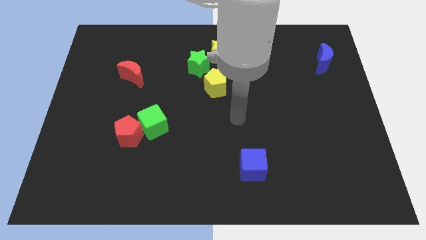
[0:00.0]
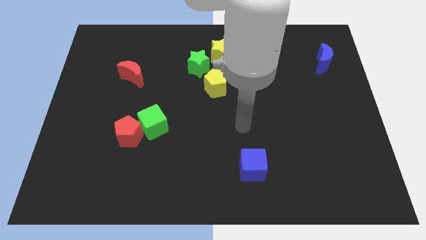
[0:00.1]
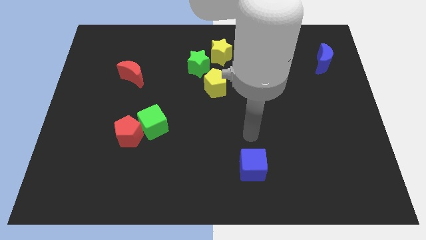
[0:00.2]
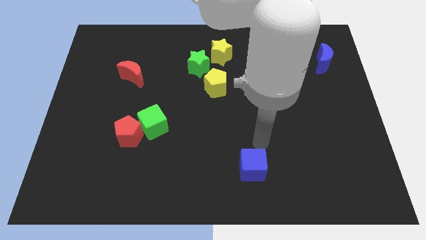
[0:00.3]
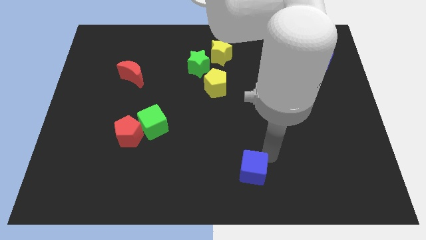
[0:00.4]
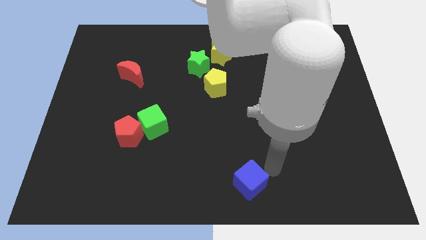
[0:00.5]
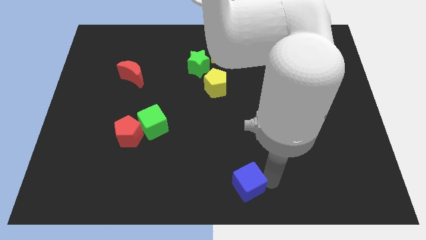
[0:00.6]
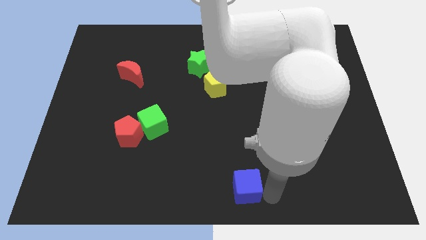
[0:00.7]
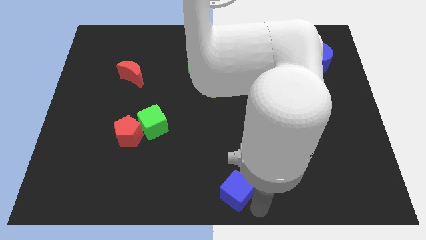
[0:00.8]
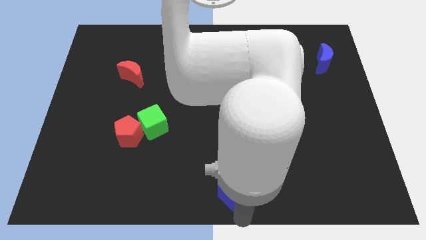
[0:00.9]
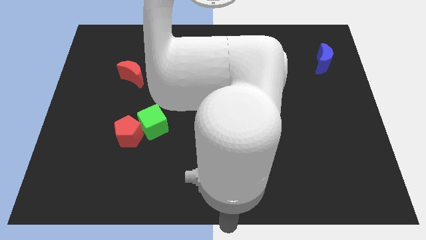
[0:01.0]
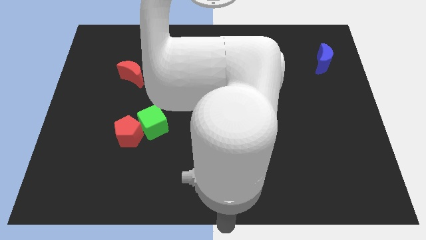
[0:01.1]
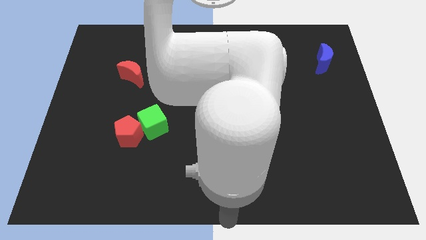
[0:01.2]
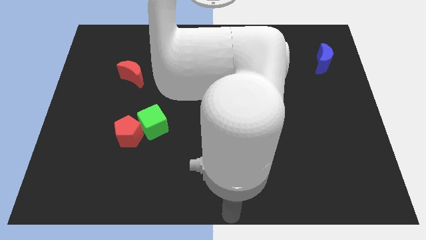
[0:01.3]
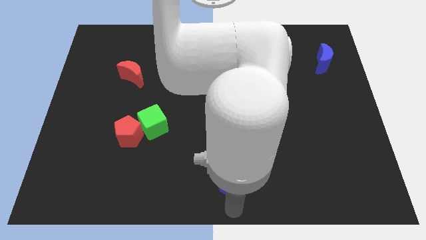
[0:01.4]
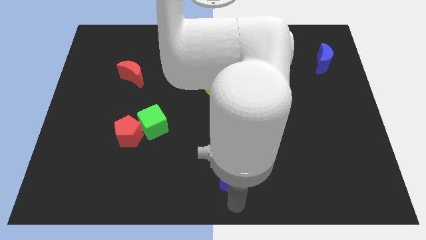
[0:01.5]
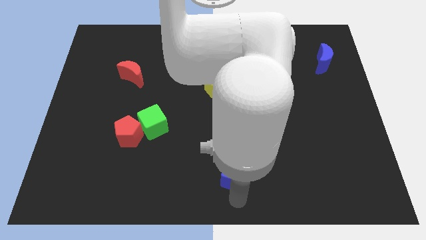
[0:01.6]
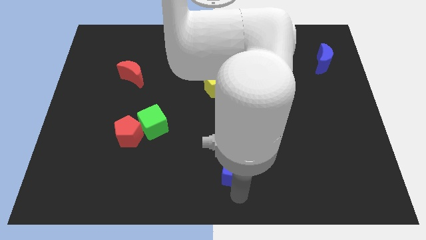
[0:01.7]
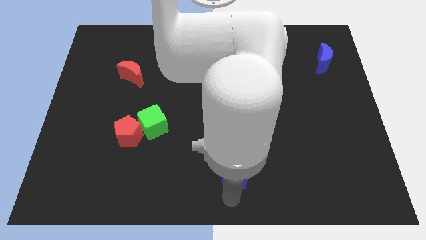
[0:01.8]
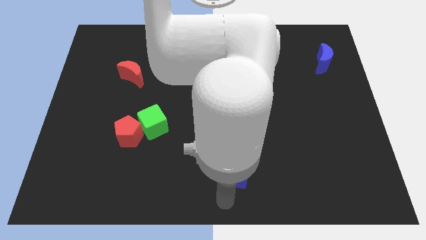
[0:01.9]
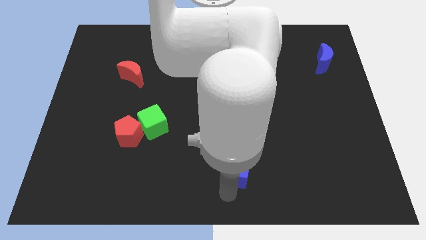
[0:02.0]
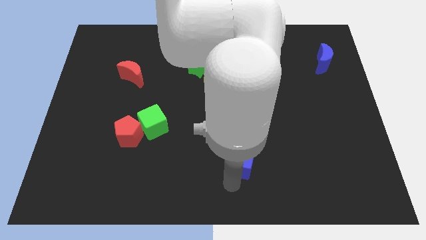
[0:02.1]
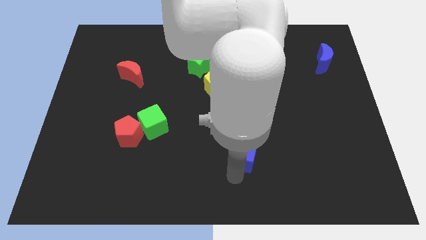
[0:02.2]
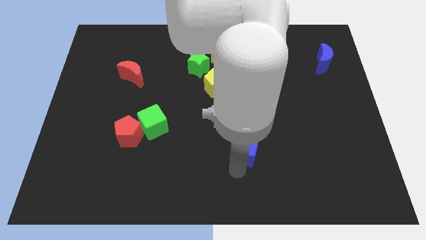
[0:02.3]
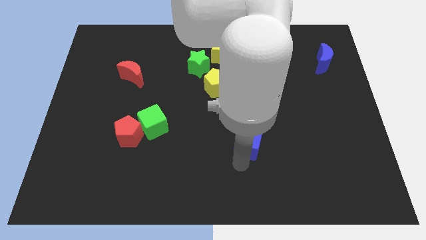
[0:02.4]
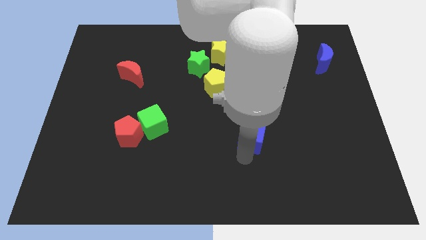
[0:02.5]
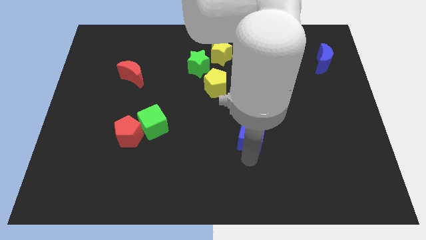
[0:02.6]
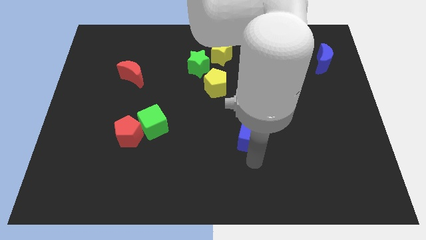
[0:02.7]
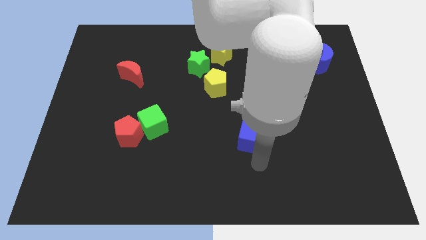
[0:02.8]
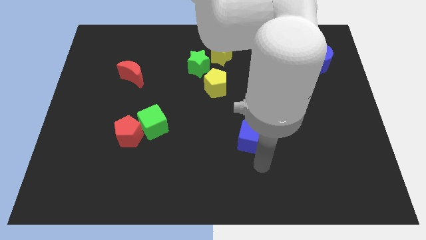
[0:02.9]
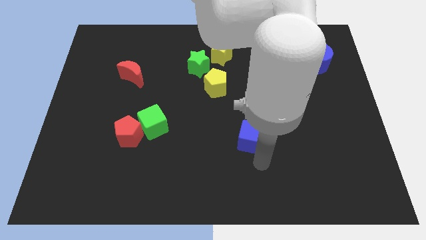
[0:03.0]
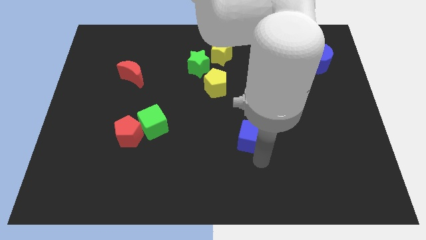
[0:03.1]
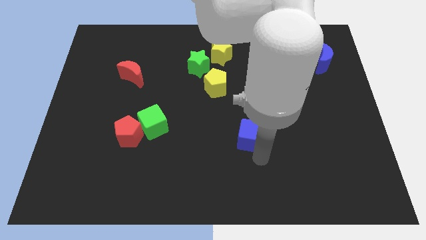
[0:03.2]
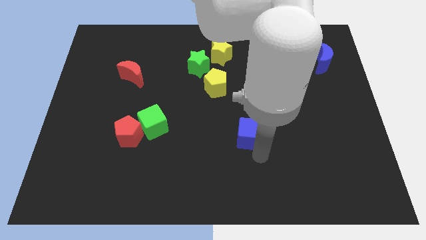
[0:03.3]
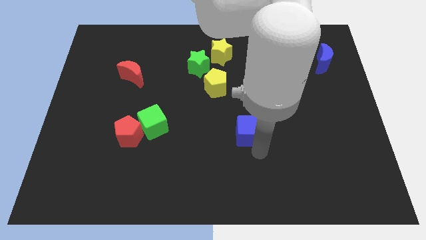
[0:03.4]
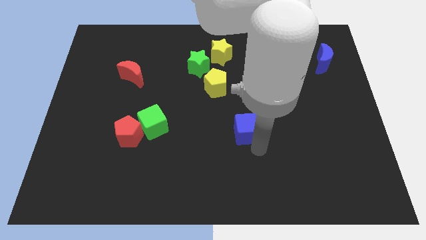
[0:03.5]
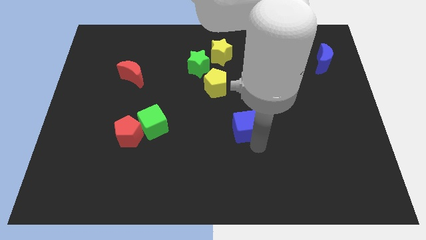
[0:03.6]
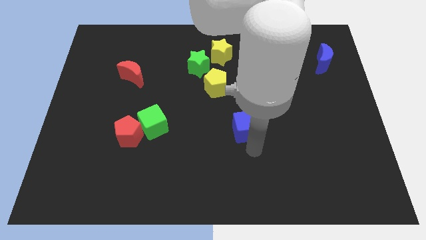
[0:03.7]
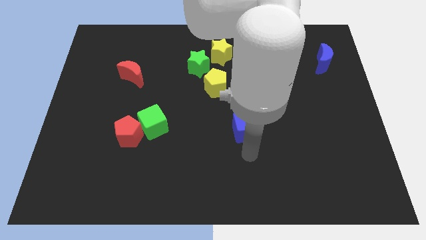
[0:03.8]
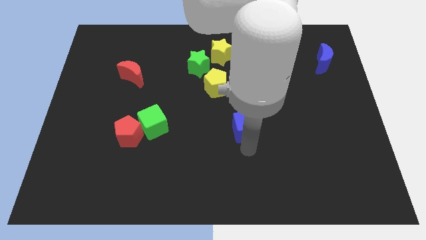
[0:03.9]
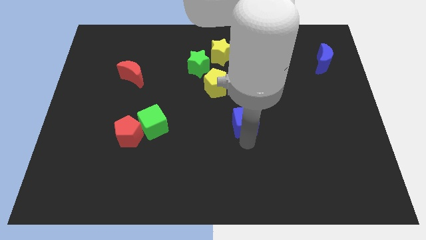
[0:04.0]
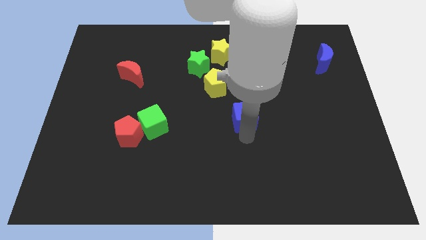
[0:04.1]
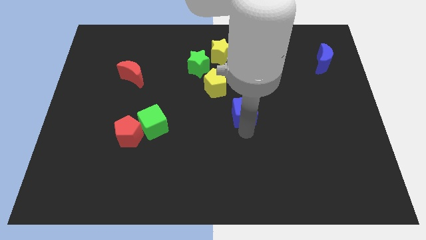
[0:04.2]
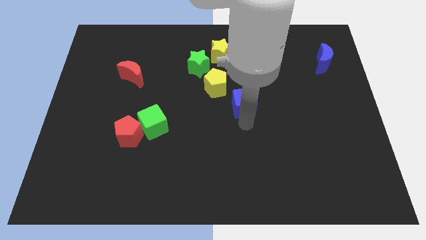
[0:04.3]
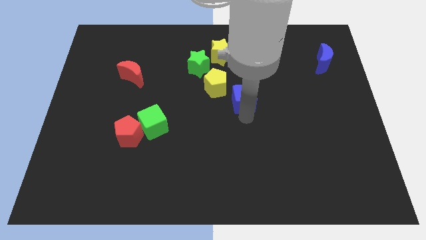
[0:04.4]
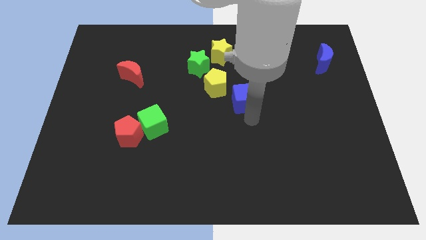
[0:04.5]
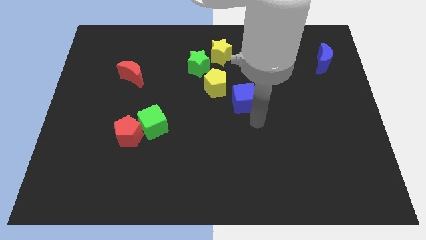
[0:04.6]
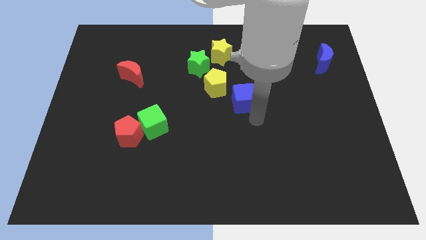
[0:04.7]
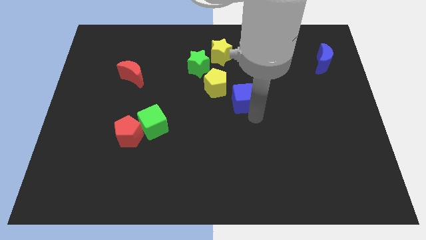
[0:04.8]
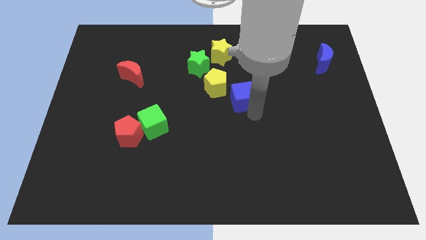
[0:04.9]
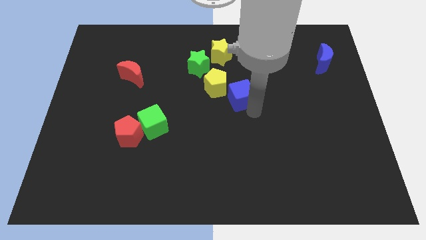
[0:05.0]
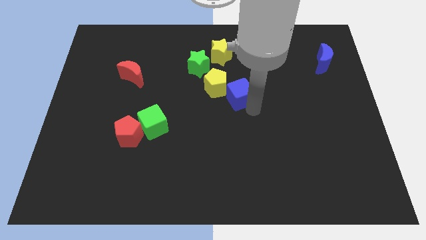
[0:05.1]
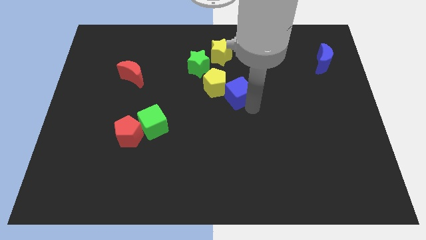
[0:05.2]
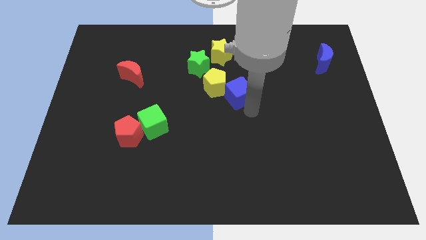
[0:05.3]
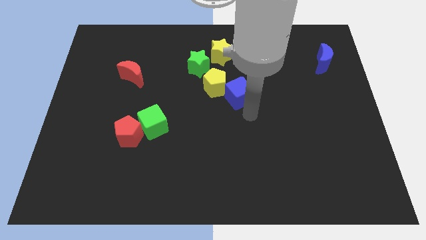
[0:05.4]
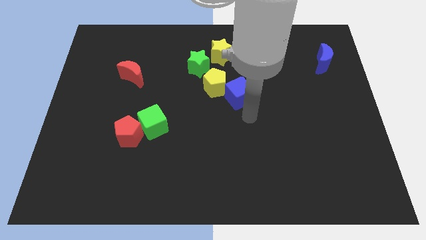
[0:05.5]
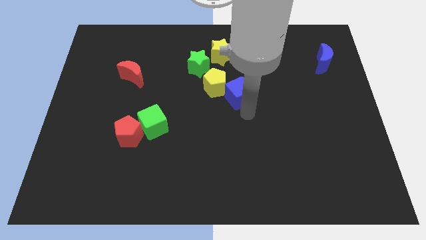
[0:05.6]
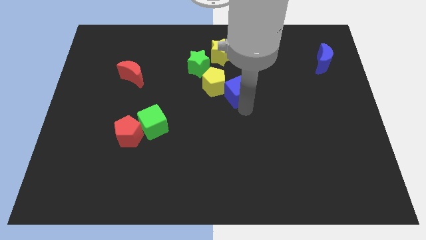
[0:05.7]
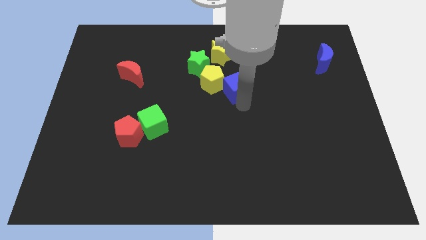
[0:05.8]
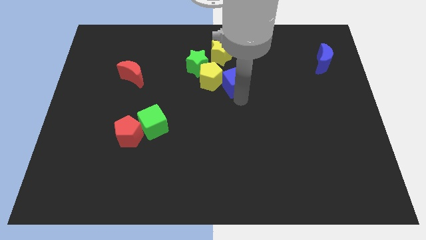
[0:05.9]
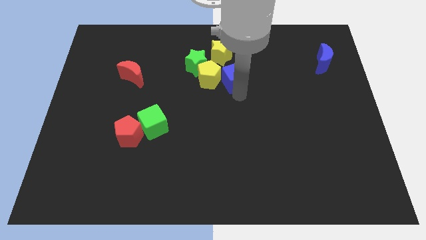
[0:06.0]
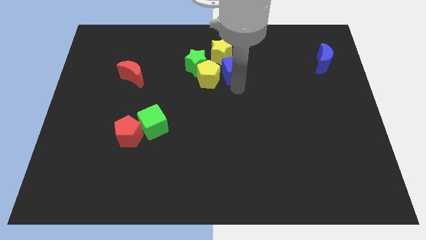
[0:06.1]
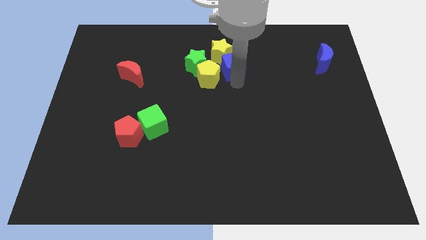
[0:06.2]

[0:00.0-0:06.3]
slide the blue cube next to the yellow star
